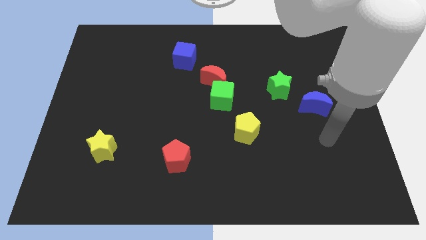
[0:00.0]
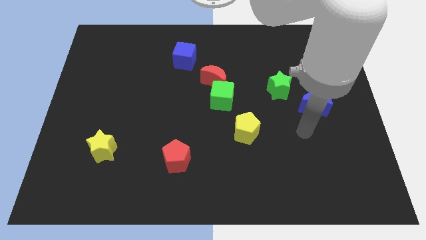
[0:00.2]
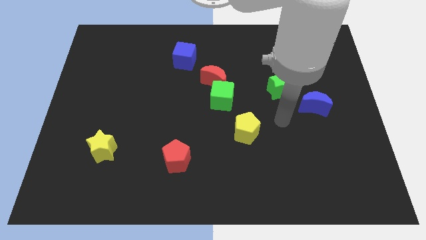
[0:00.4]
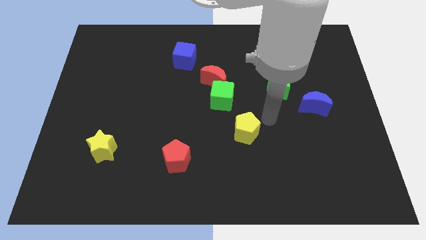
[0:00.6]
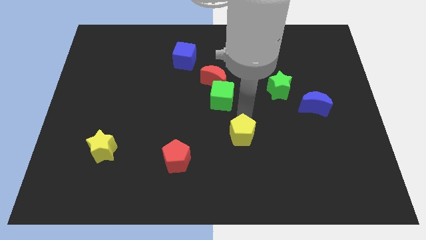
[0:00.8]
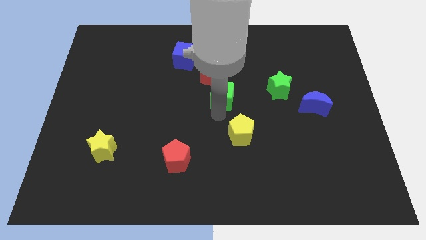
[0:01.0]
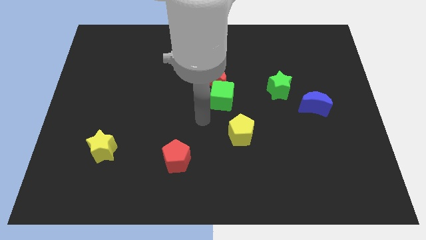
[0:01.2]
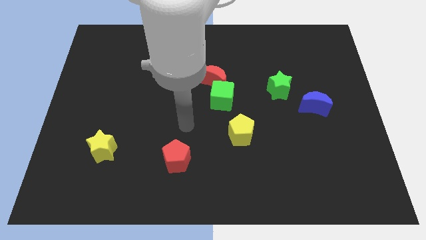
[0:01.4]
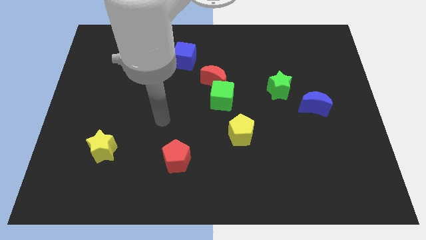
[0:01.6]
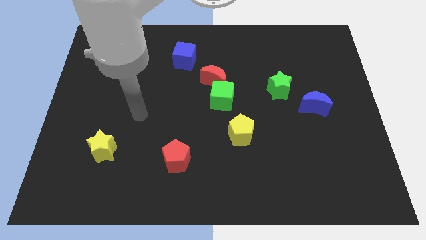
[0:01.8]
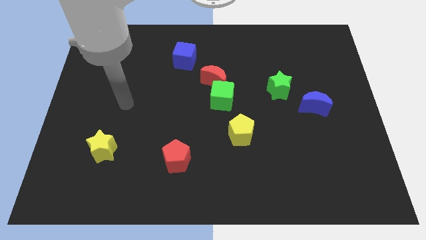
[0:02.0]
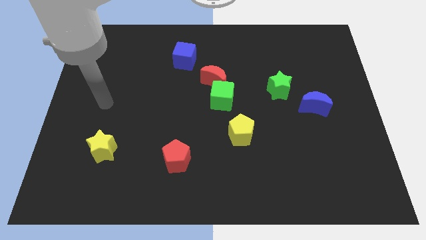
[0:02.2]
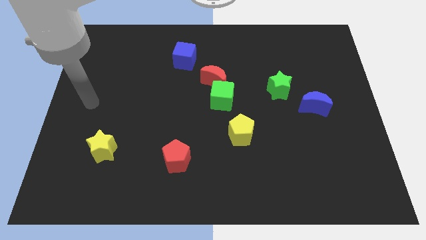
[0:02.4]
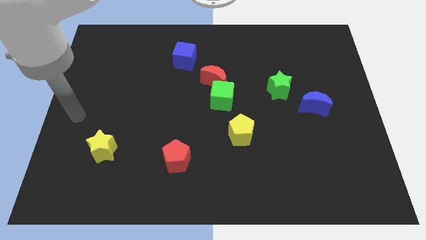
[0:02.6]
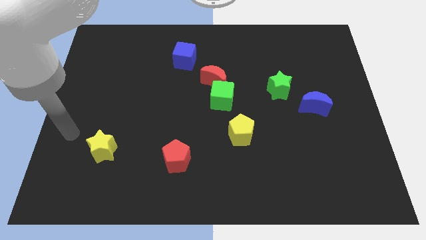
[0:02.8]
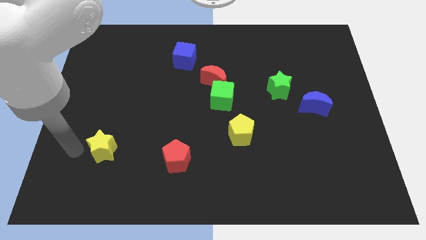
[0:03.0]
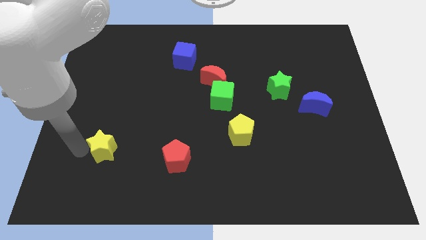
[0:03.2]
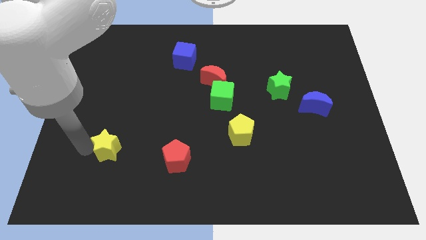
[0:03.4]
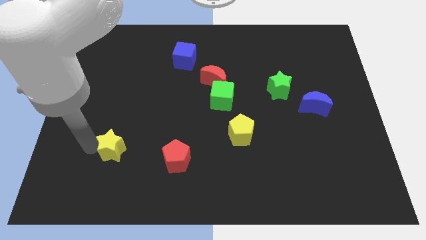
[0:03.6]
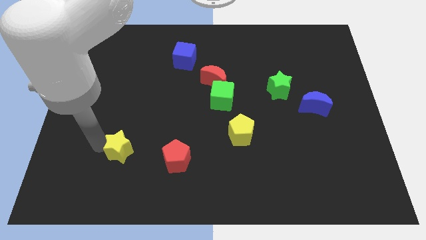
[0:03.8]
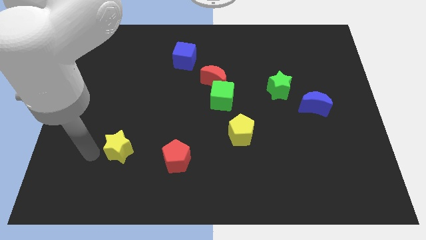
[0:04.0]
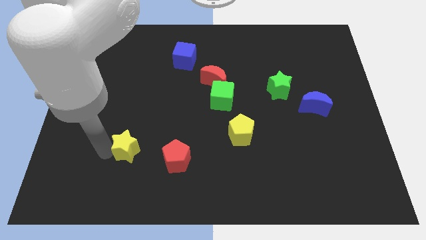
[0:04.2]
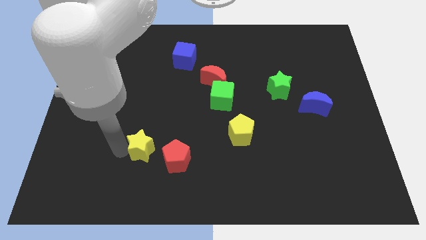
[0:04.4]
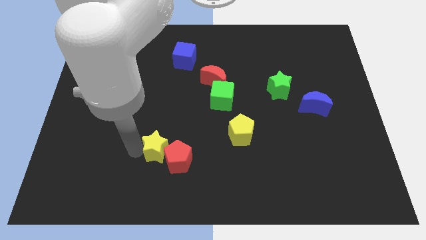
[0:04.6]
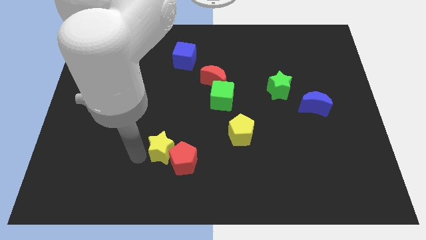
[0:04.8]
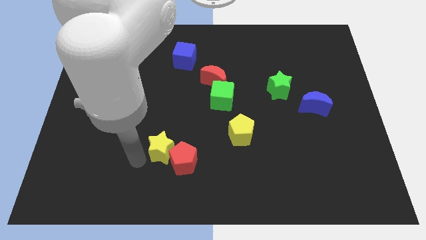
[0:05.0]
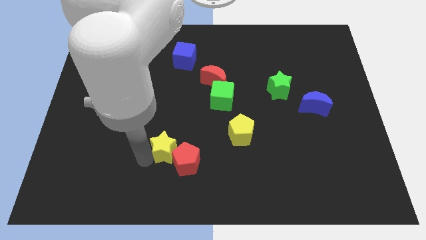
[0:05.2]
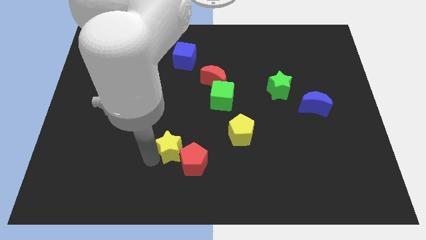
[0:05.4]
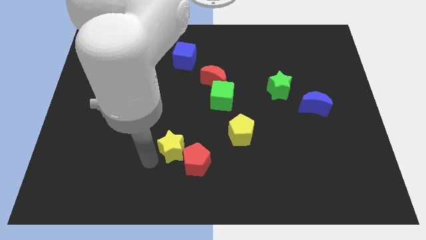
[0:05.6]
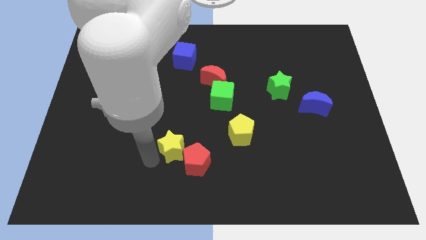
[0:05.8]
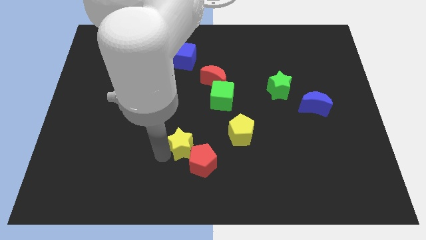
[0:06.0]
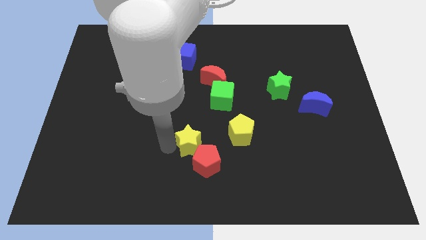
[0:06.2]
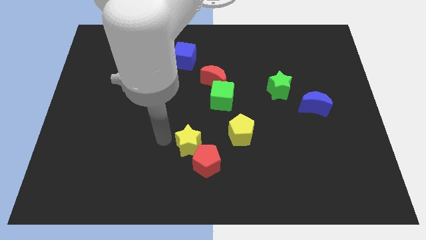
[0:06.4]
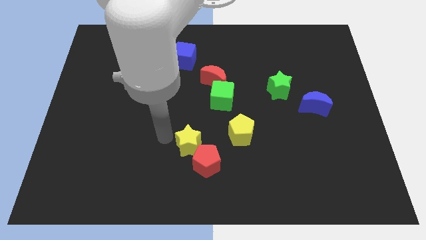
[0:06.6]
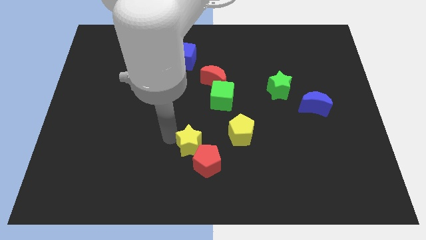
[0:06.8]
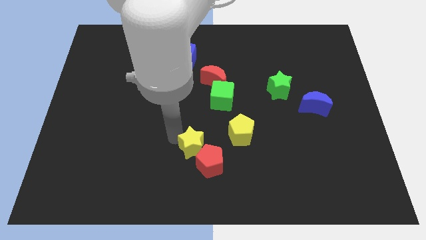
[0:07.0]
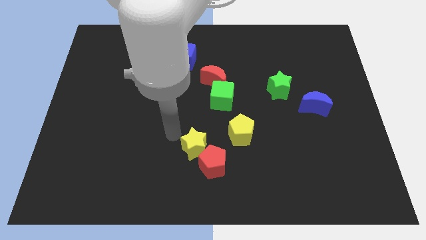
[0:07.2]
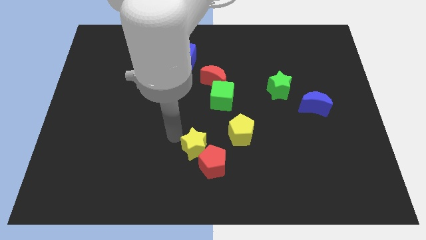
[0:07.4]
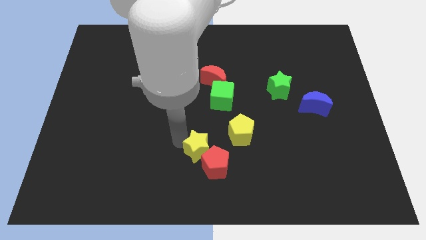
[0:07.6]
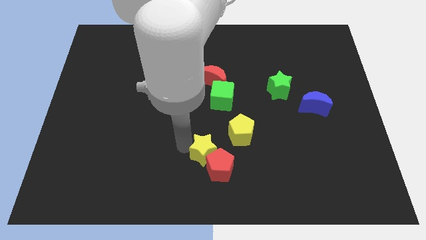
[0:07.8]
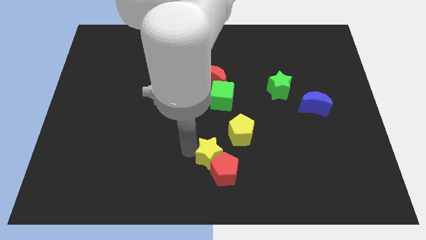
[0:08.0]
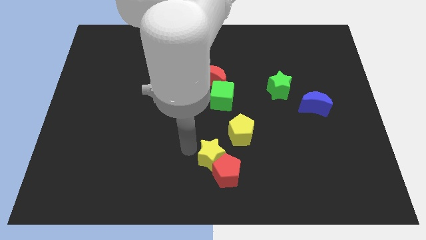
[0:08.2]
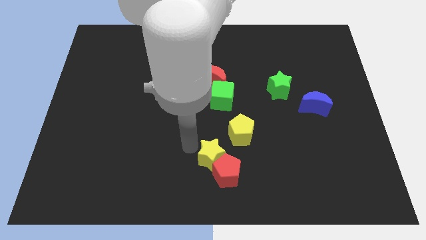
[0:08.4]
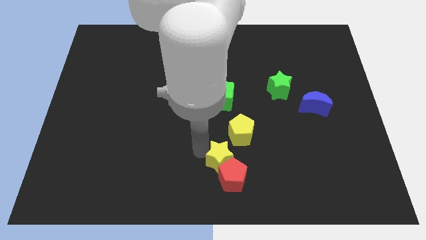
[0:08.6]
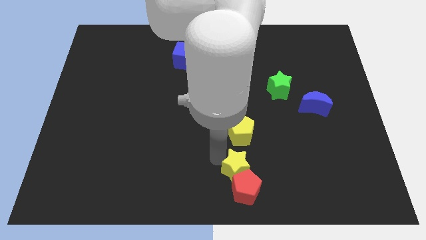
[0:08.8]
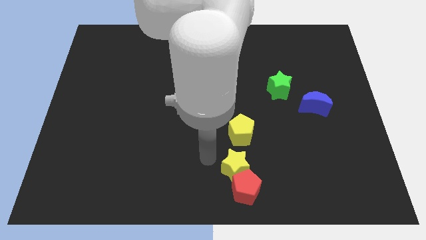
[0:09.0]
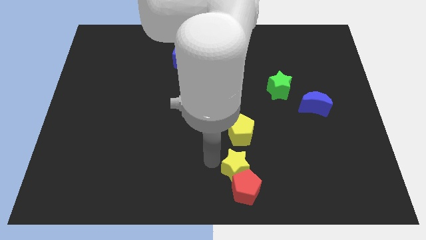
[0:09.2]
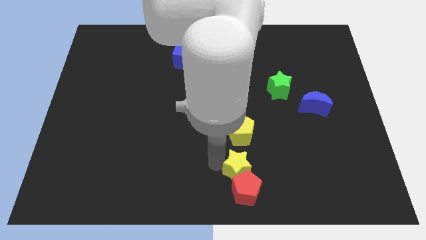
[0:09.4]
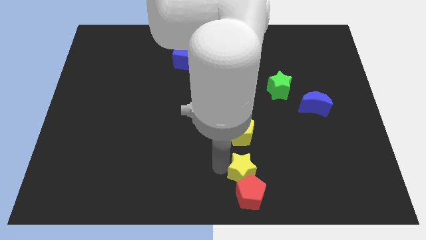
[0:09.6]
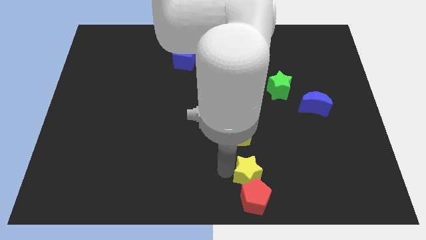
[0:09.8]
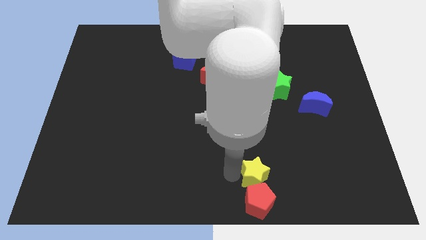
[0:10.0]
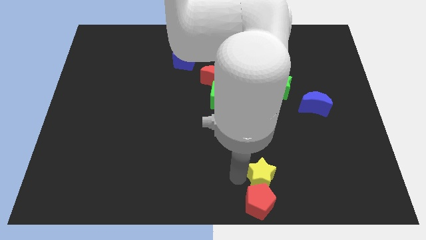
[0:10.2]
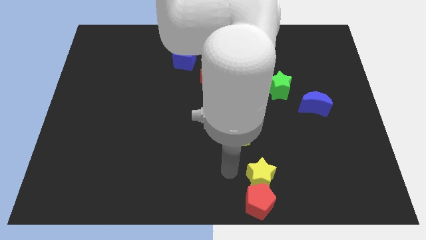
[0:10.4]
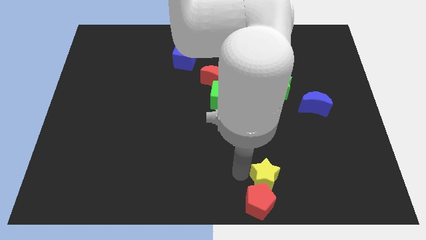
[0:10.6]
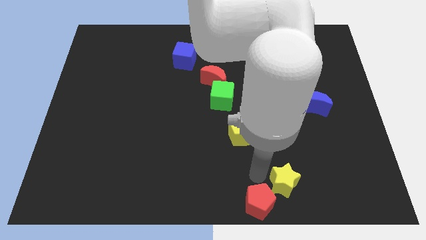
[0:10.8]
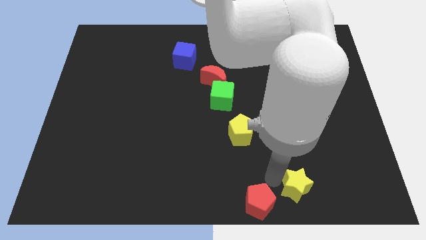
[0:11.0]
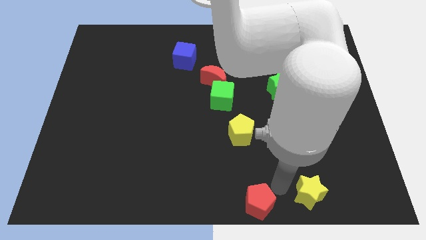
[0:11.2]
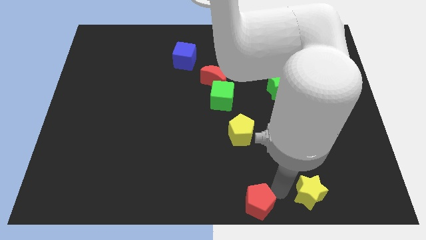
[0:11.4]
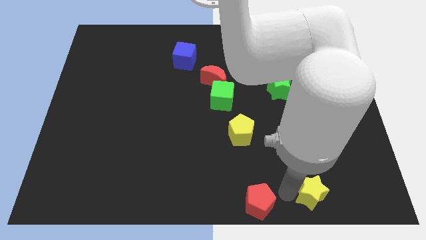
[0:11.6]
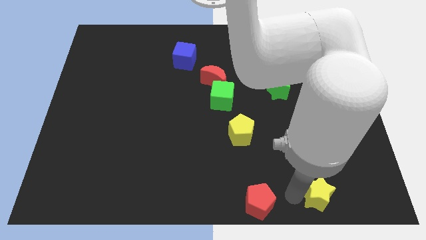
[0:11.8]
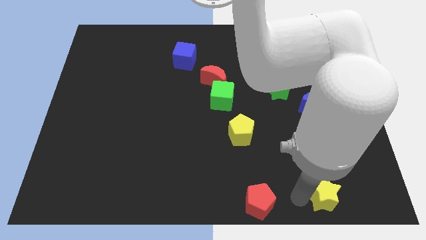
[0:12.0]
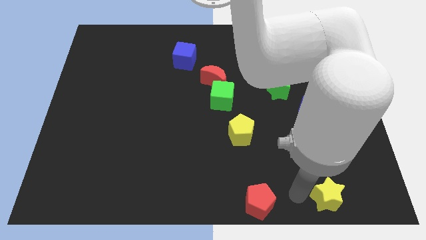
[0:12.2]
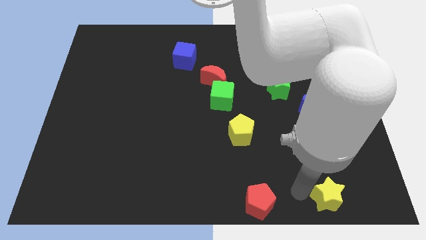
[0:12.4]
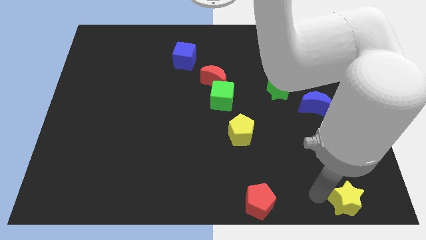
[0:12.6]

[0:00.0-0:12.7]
push the yellow star to the lower right corner
